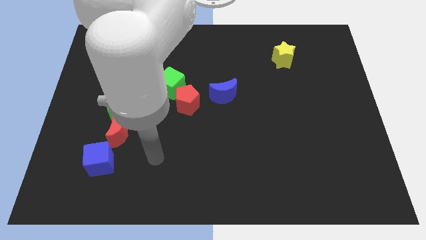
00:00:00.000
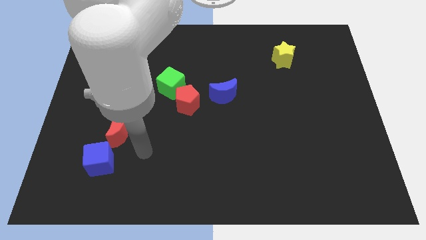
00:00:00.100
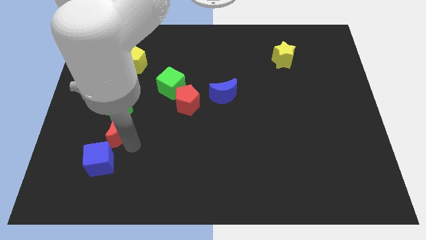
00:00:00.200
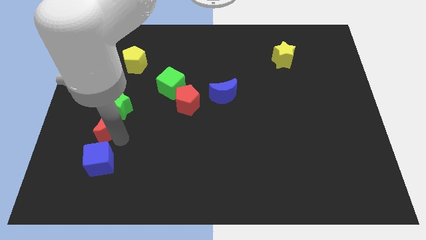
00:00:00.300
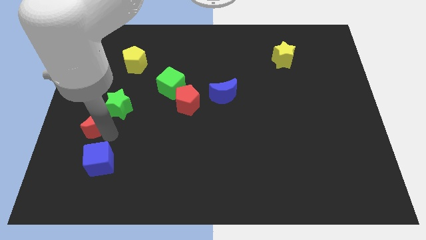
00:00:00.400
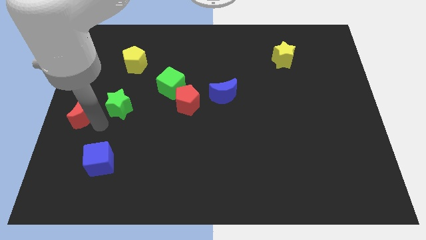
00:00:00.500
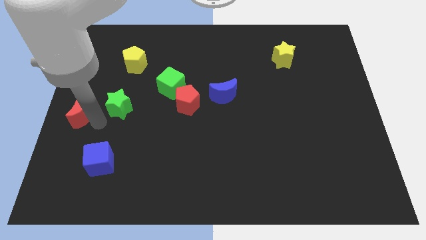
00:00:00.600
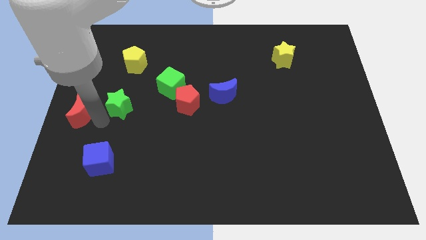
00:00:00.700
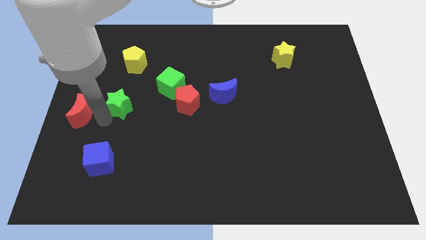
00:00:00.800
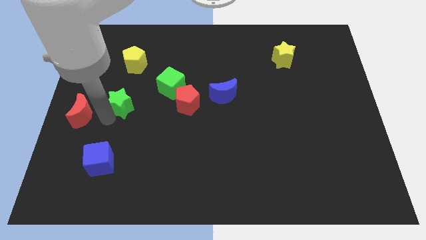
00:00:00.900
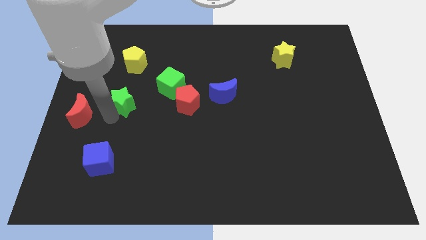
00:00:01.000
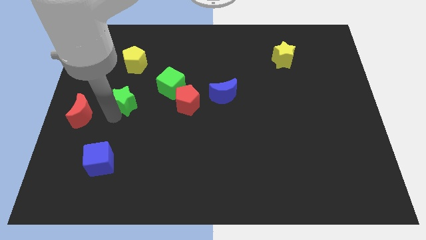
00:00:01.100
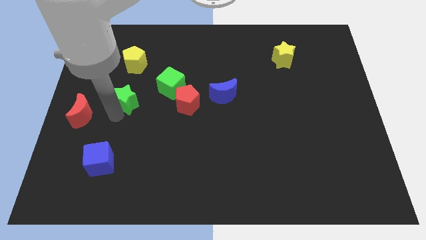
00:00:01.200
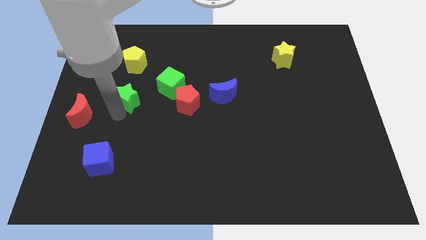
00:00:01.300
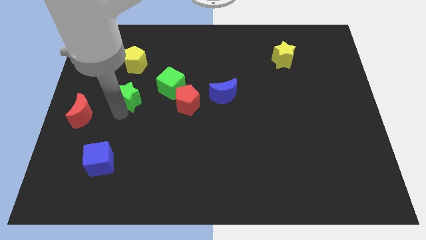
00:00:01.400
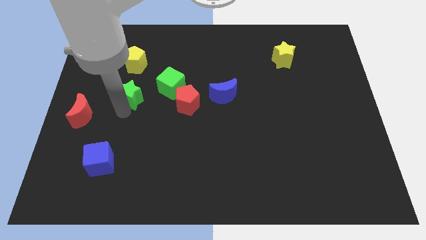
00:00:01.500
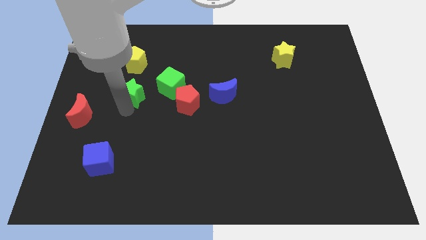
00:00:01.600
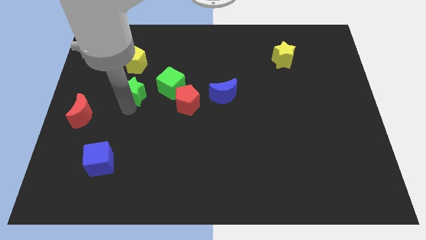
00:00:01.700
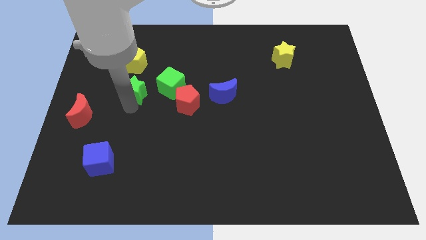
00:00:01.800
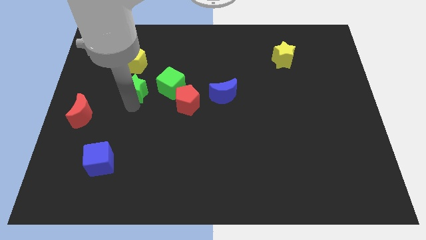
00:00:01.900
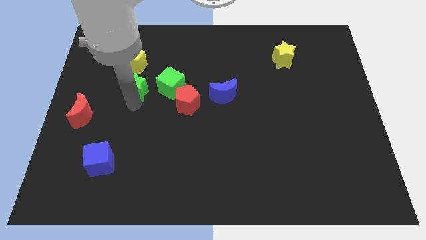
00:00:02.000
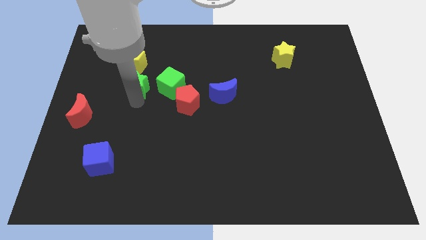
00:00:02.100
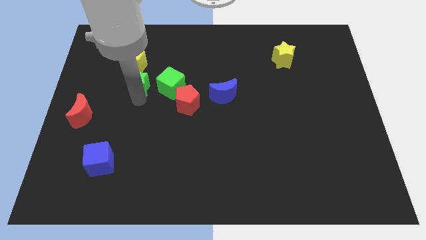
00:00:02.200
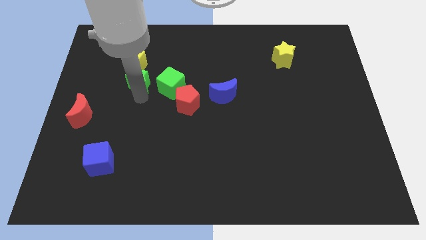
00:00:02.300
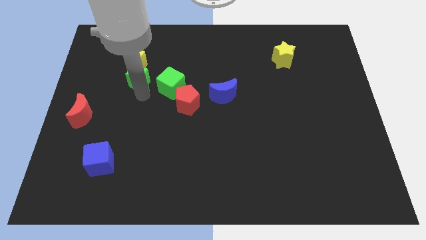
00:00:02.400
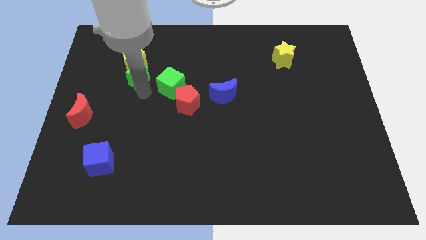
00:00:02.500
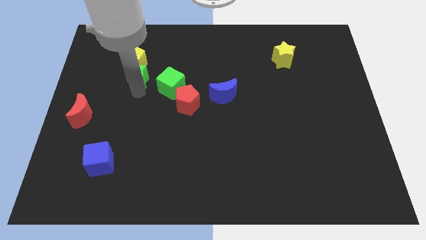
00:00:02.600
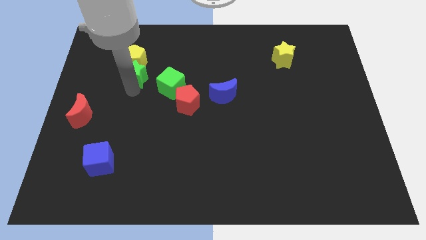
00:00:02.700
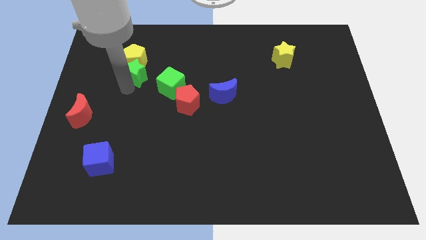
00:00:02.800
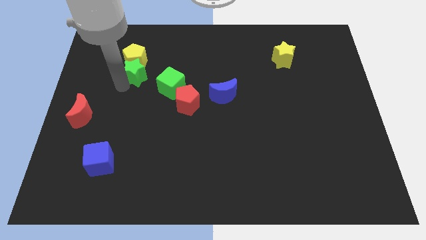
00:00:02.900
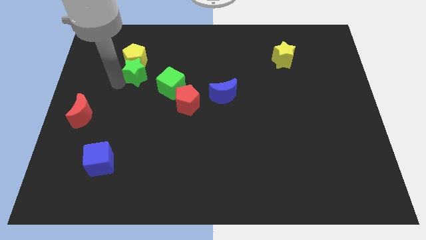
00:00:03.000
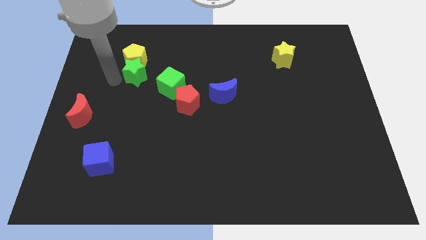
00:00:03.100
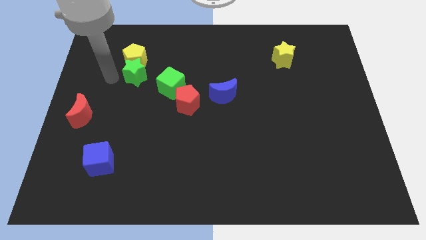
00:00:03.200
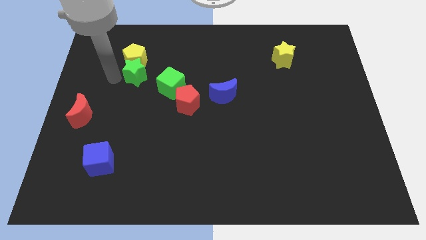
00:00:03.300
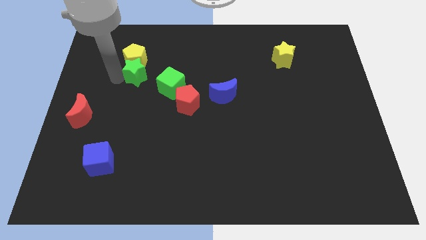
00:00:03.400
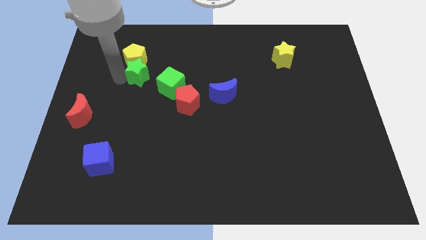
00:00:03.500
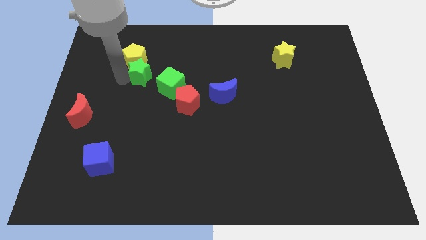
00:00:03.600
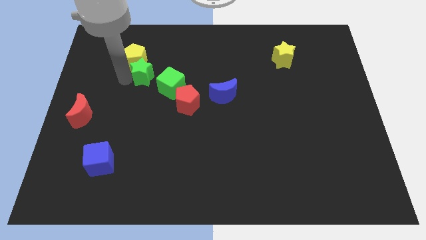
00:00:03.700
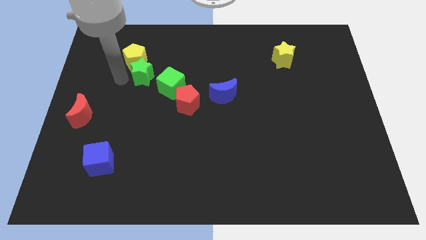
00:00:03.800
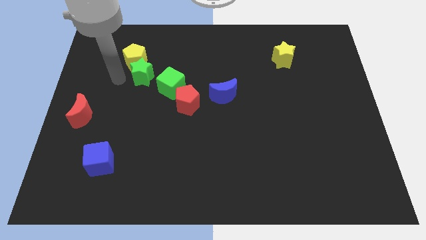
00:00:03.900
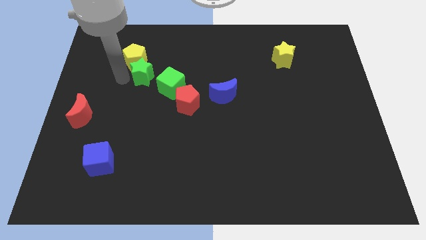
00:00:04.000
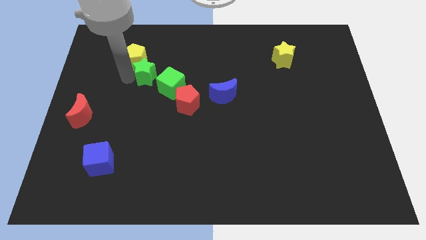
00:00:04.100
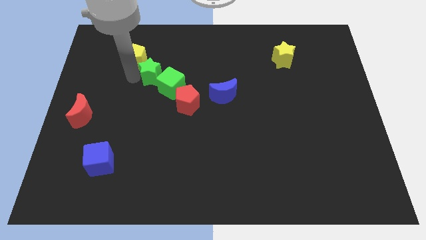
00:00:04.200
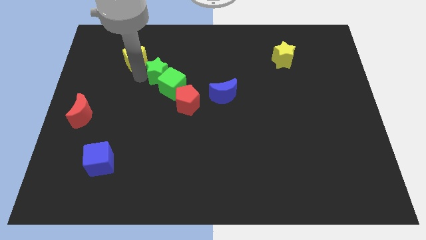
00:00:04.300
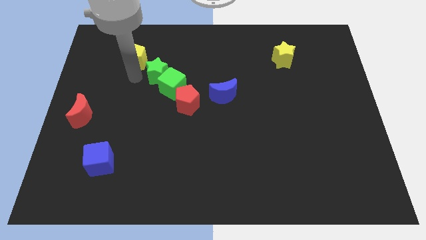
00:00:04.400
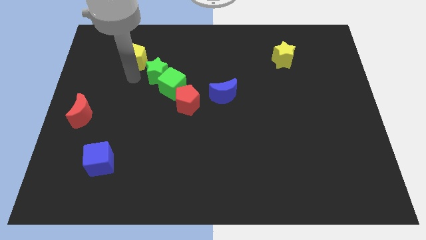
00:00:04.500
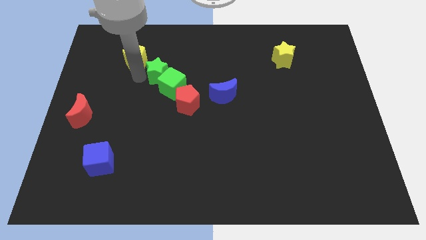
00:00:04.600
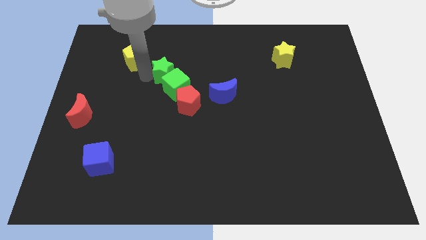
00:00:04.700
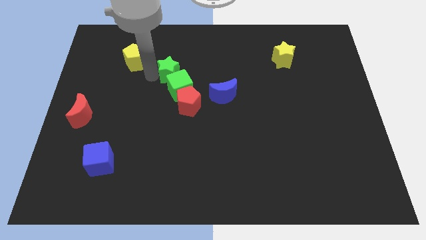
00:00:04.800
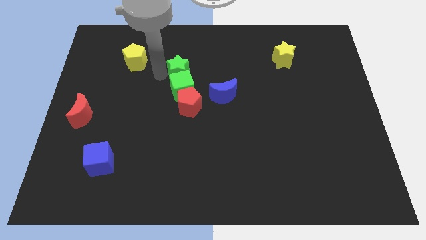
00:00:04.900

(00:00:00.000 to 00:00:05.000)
put the green star to the top right of the green cube

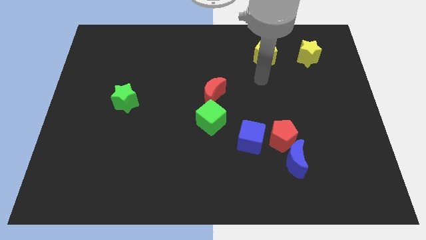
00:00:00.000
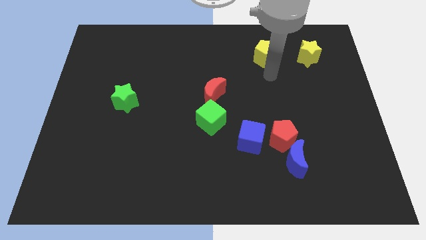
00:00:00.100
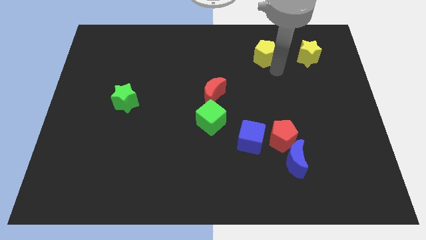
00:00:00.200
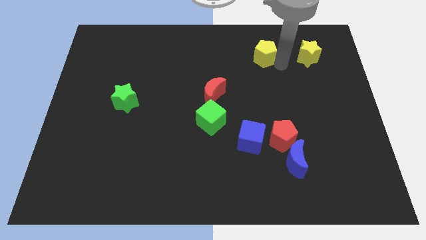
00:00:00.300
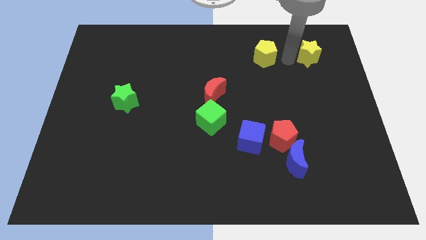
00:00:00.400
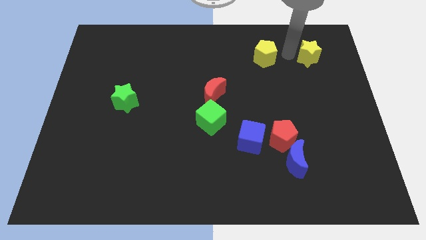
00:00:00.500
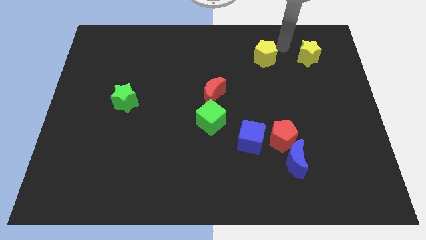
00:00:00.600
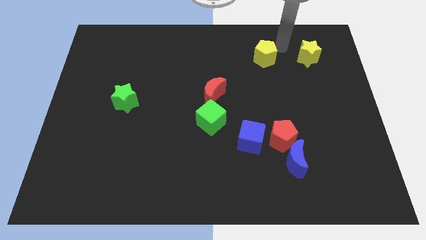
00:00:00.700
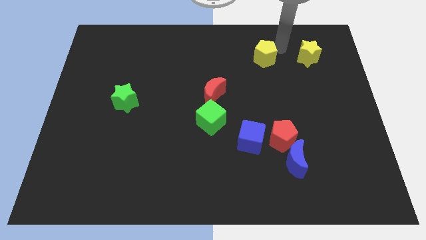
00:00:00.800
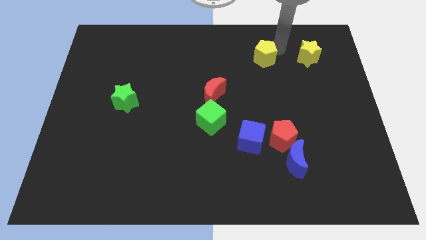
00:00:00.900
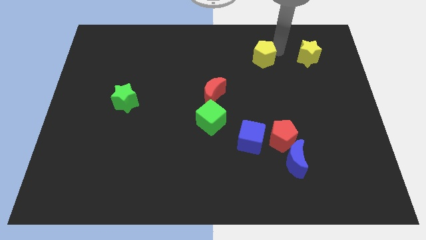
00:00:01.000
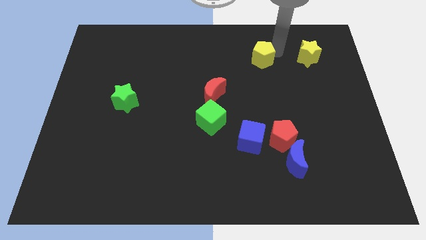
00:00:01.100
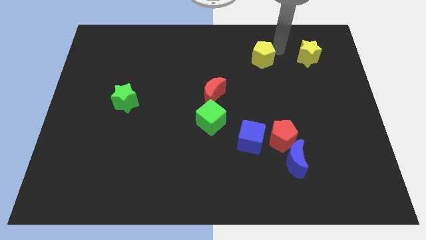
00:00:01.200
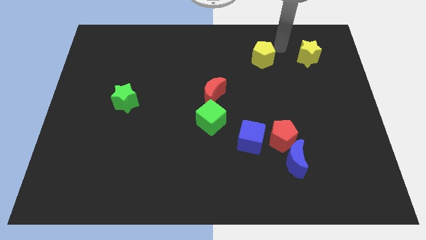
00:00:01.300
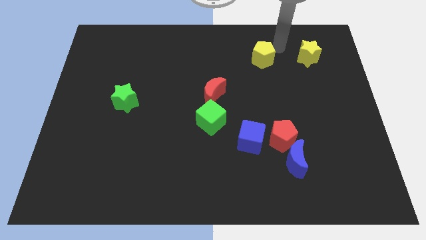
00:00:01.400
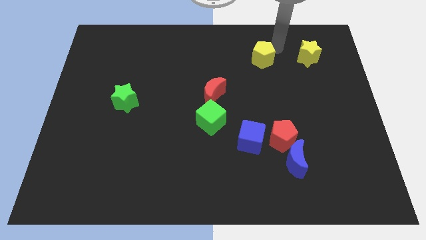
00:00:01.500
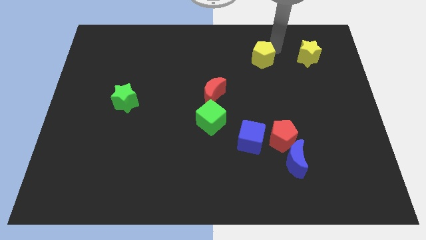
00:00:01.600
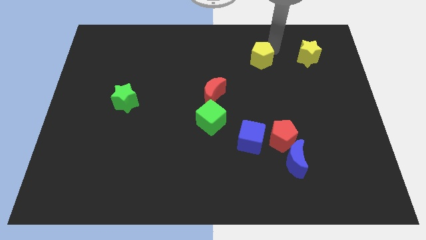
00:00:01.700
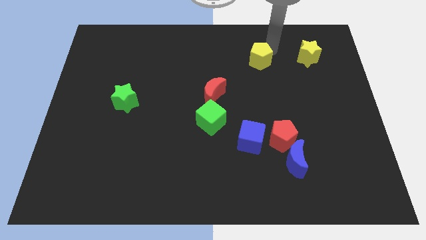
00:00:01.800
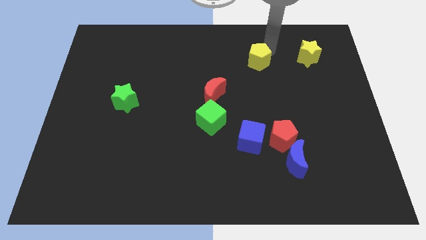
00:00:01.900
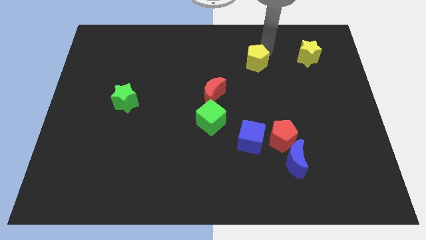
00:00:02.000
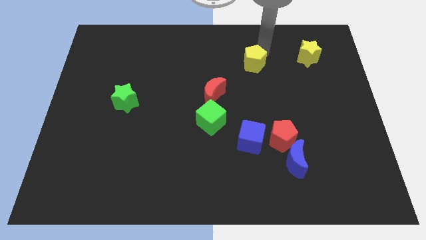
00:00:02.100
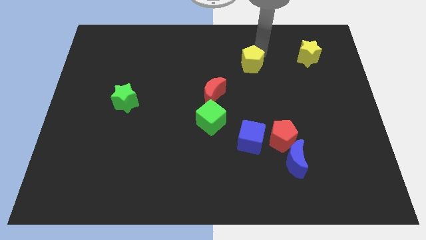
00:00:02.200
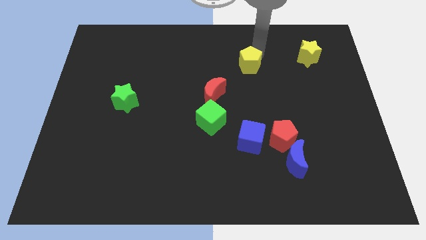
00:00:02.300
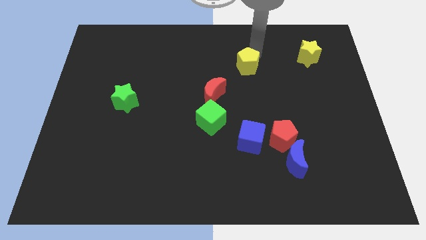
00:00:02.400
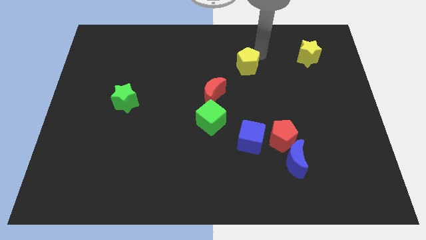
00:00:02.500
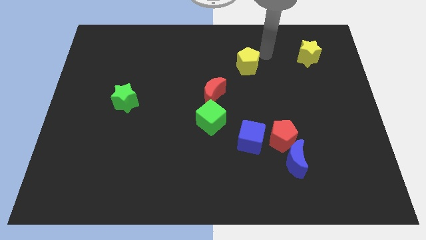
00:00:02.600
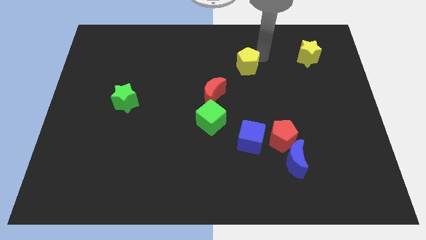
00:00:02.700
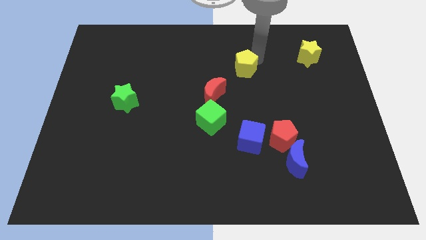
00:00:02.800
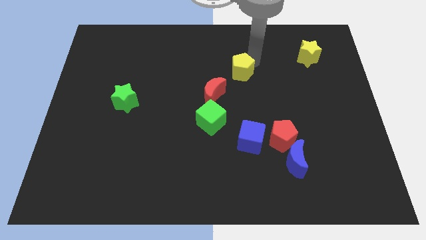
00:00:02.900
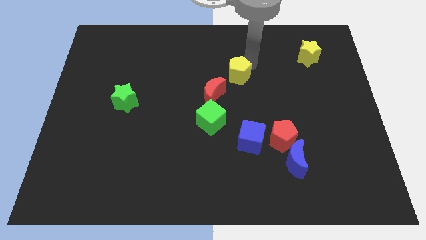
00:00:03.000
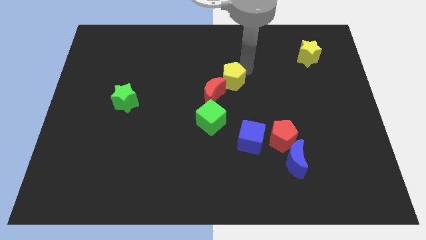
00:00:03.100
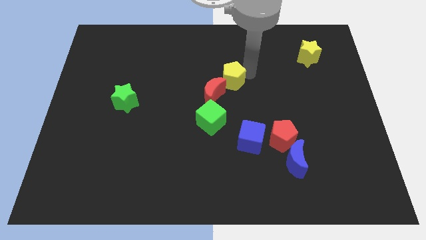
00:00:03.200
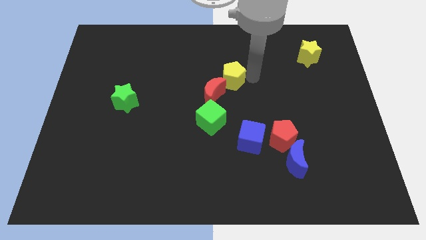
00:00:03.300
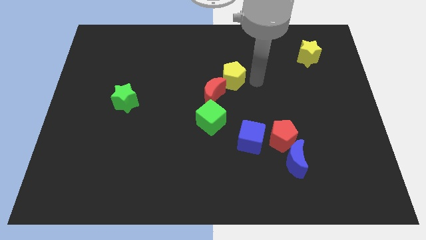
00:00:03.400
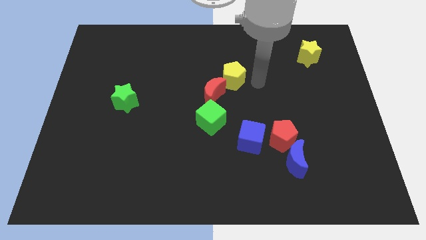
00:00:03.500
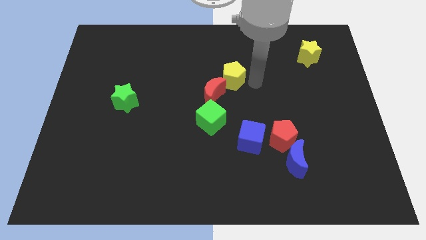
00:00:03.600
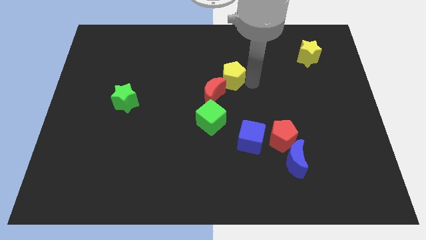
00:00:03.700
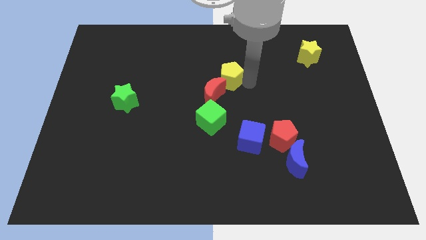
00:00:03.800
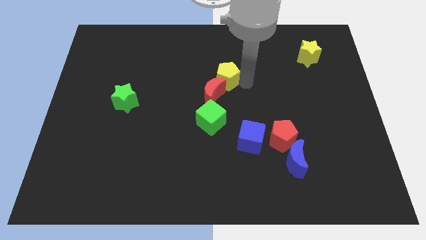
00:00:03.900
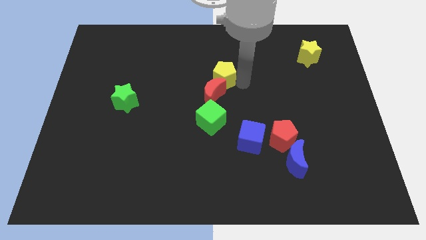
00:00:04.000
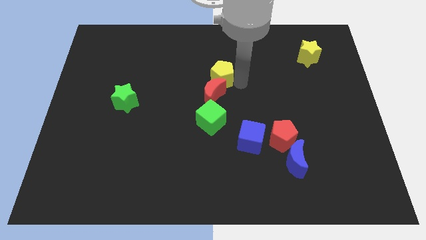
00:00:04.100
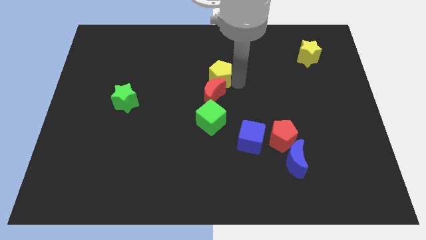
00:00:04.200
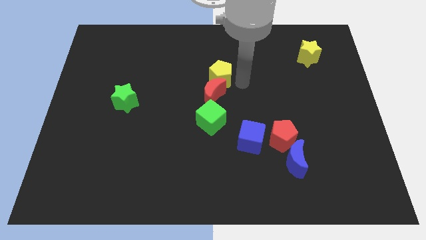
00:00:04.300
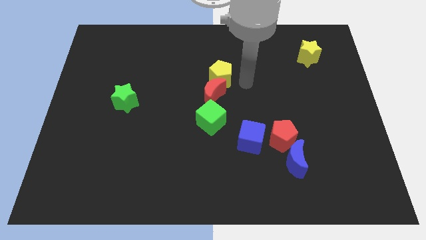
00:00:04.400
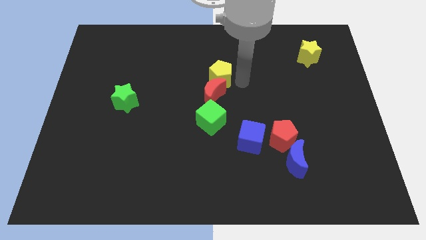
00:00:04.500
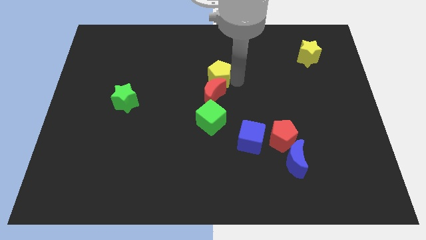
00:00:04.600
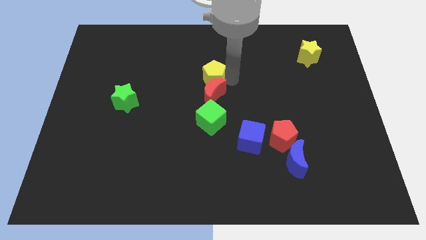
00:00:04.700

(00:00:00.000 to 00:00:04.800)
push the yellow pentagon to the top left of the red moon
